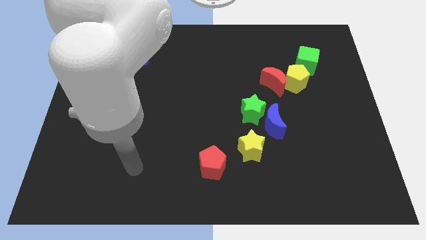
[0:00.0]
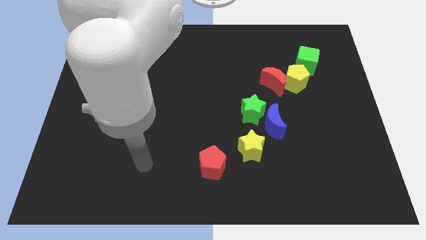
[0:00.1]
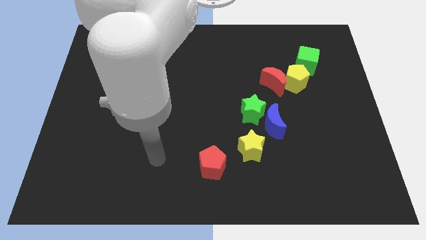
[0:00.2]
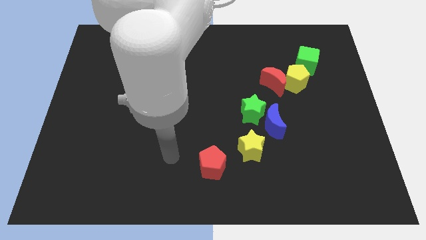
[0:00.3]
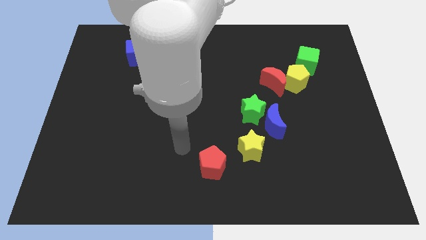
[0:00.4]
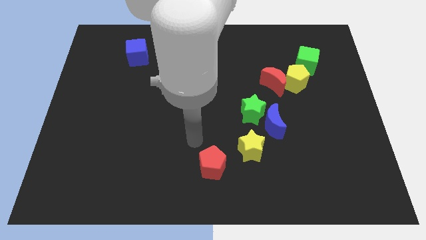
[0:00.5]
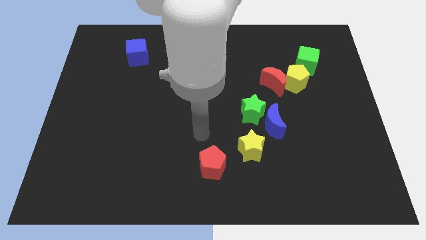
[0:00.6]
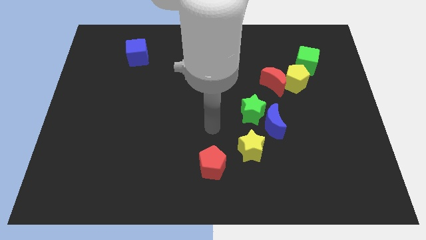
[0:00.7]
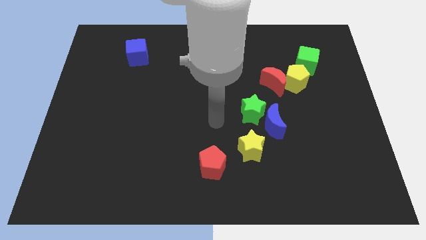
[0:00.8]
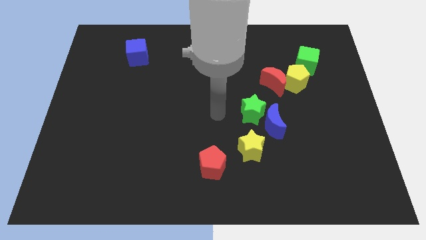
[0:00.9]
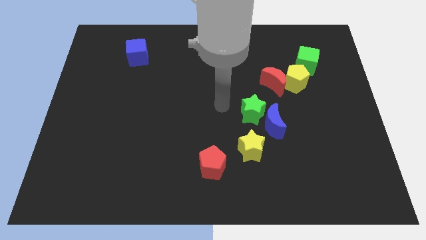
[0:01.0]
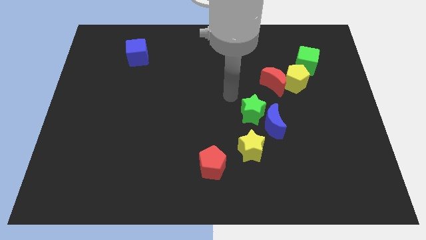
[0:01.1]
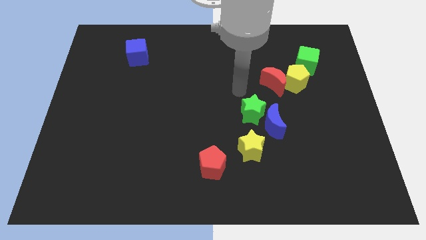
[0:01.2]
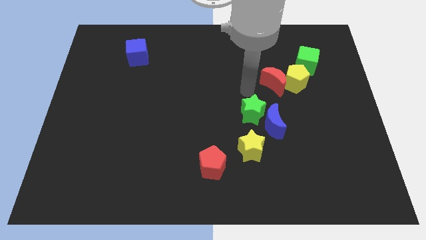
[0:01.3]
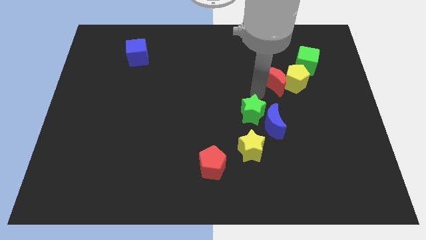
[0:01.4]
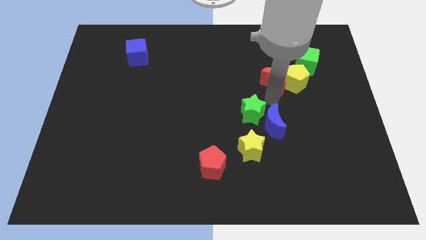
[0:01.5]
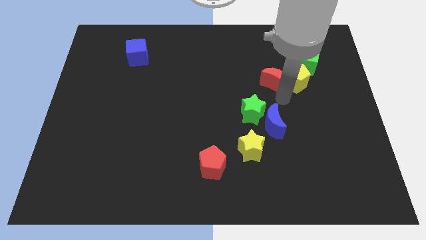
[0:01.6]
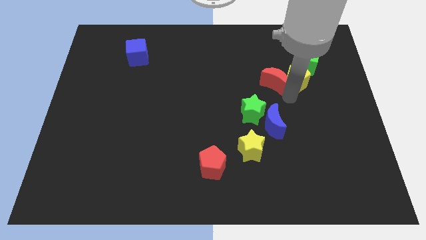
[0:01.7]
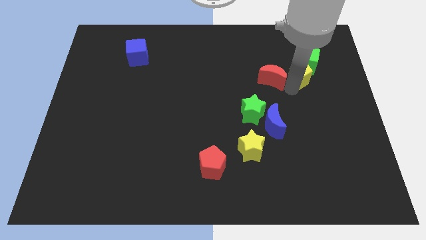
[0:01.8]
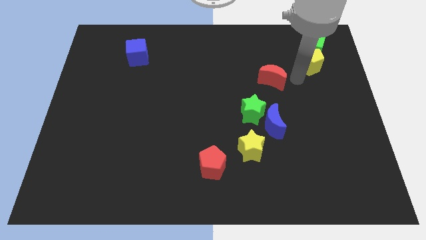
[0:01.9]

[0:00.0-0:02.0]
separate the red moon from the yellow pentagon

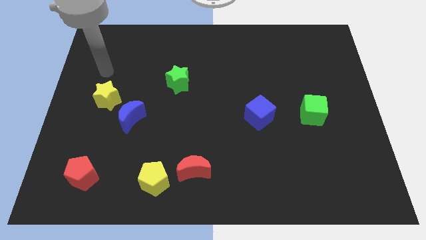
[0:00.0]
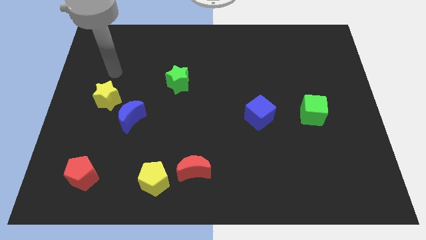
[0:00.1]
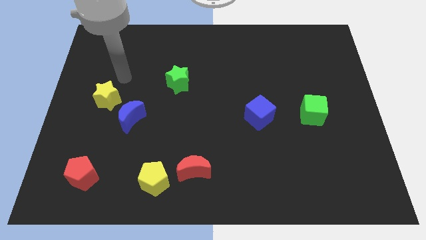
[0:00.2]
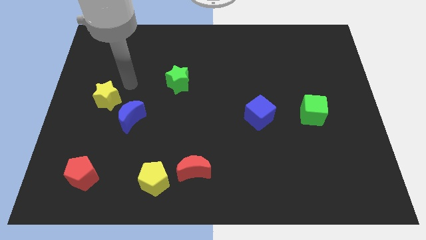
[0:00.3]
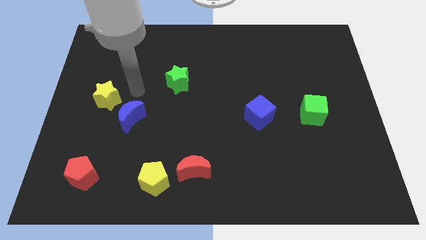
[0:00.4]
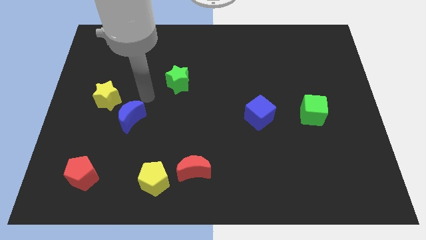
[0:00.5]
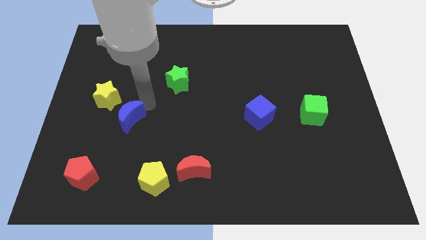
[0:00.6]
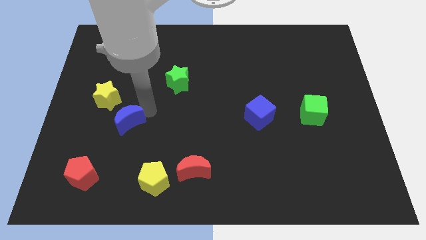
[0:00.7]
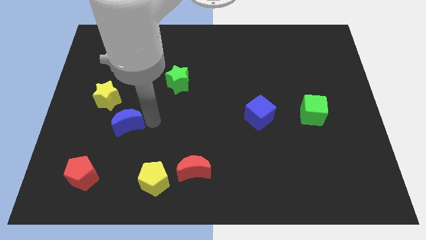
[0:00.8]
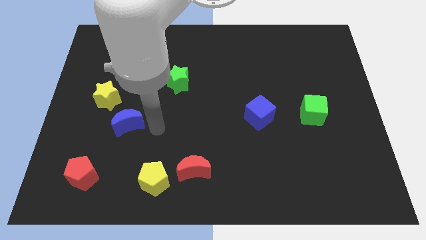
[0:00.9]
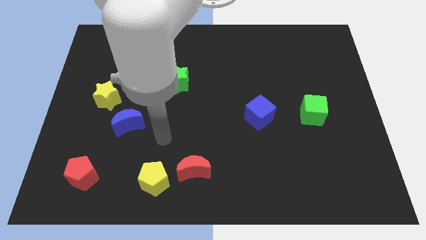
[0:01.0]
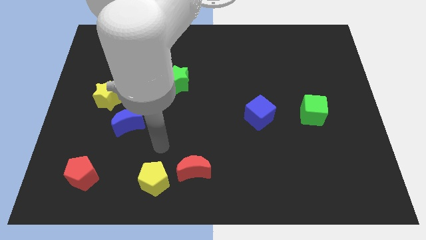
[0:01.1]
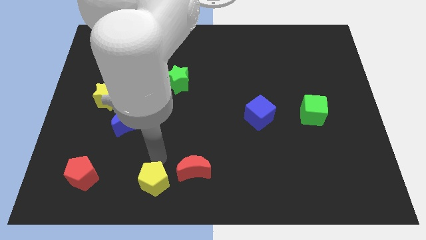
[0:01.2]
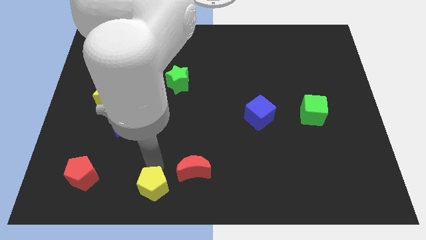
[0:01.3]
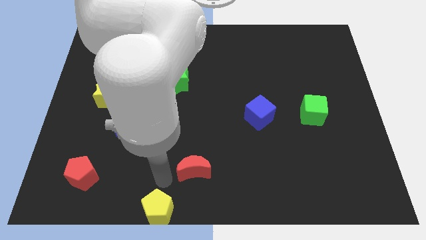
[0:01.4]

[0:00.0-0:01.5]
move the red moon away from the yellow pentagon

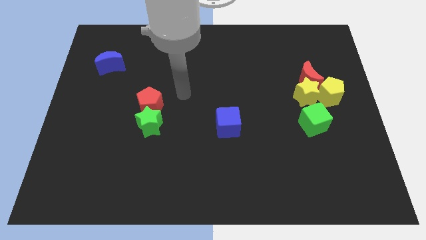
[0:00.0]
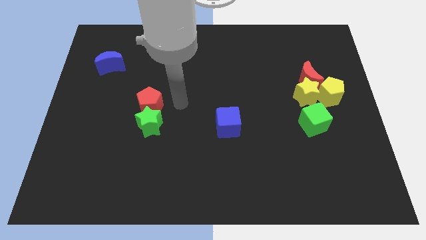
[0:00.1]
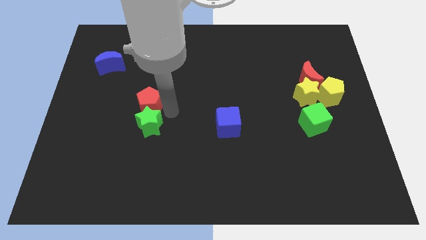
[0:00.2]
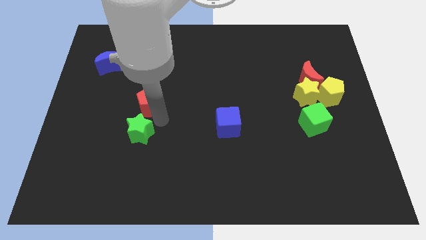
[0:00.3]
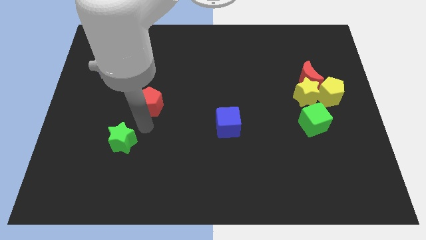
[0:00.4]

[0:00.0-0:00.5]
move the red pentagon away from the green star

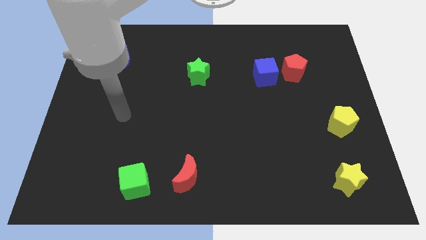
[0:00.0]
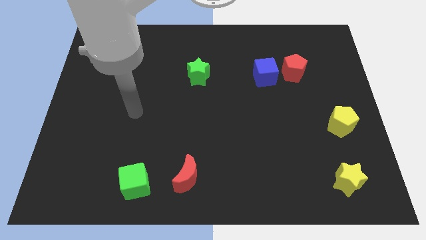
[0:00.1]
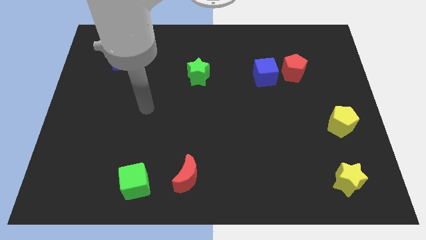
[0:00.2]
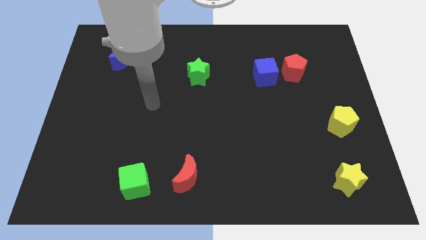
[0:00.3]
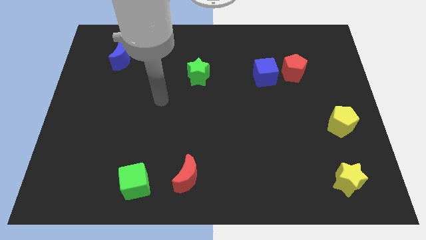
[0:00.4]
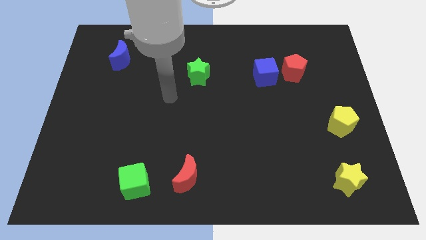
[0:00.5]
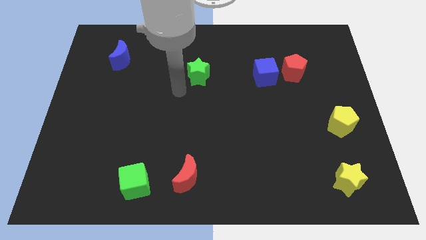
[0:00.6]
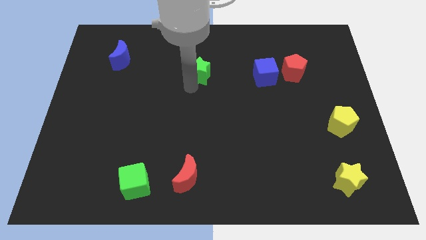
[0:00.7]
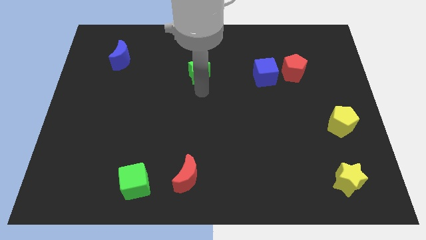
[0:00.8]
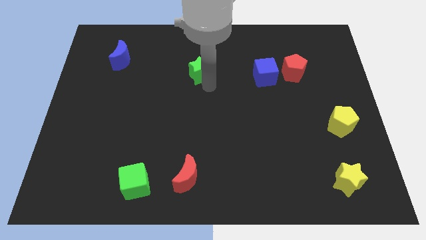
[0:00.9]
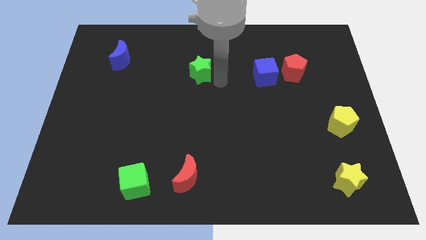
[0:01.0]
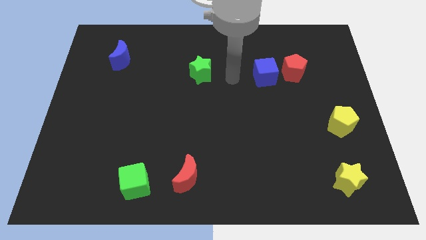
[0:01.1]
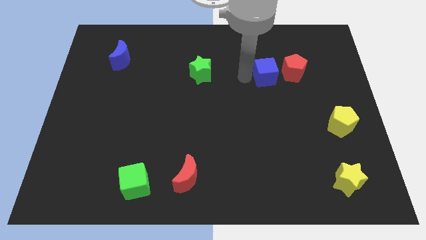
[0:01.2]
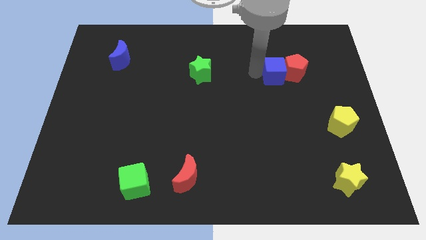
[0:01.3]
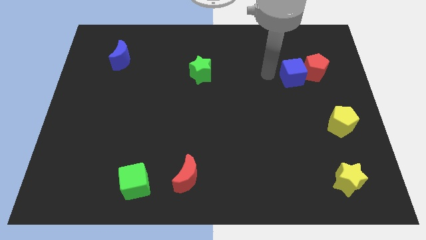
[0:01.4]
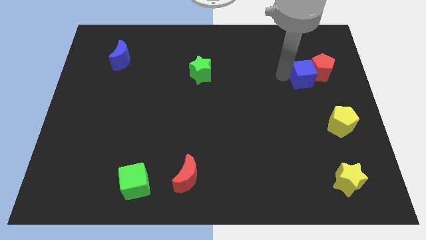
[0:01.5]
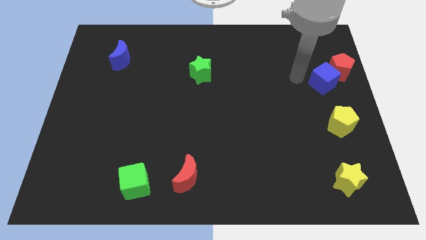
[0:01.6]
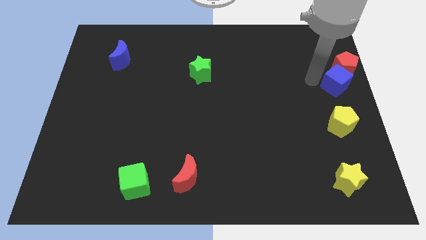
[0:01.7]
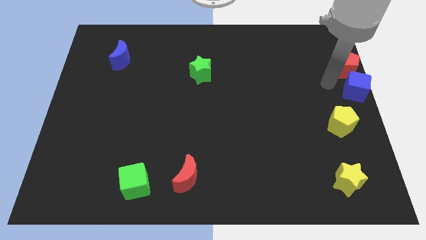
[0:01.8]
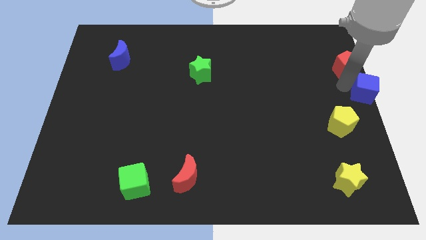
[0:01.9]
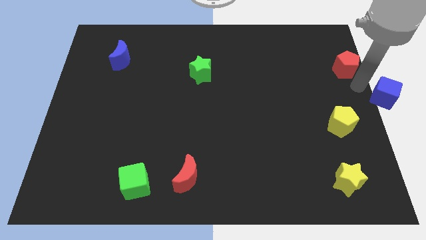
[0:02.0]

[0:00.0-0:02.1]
separate the red pentagon from the blue cube

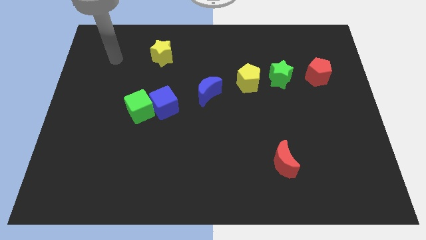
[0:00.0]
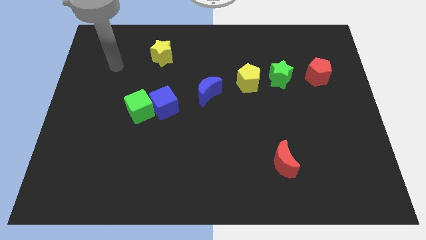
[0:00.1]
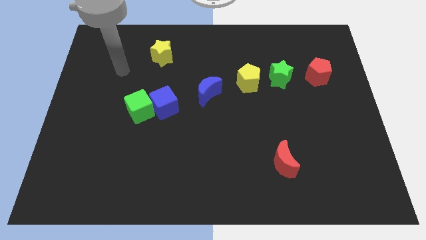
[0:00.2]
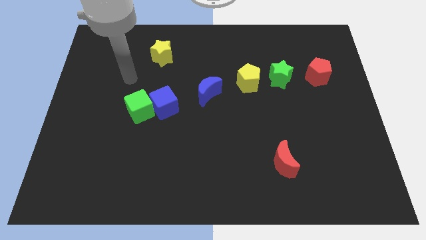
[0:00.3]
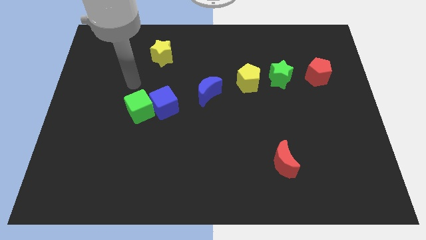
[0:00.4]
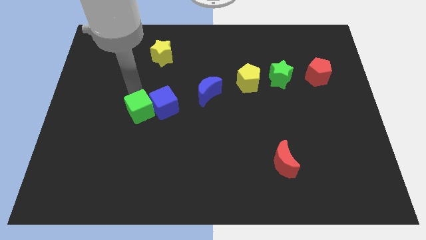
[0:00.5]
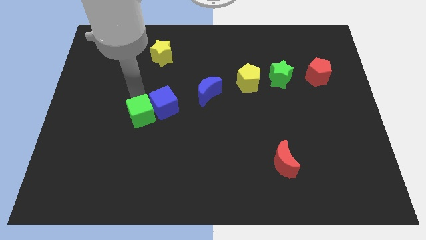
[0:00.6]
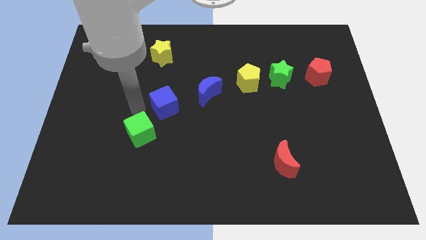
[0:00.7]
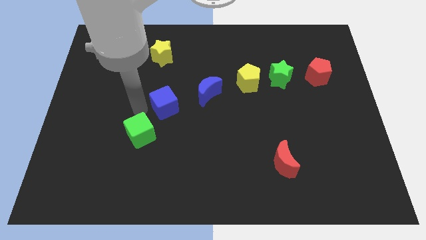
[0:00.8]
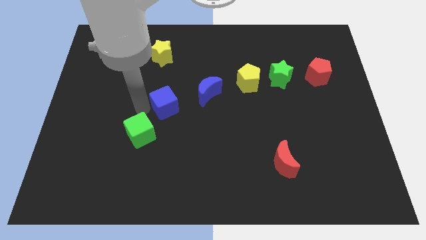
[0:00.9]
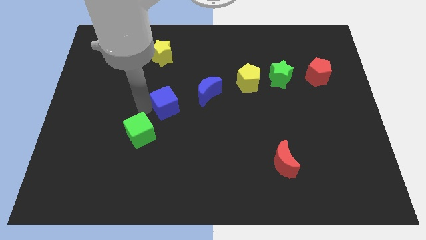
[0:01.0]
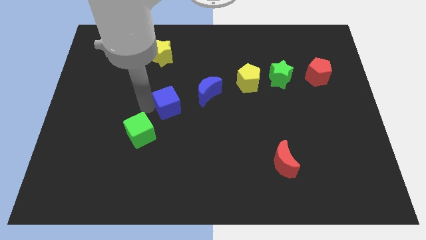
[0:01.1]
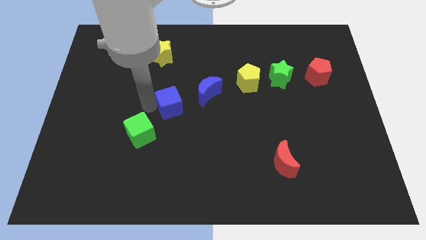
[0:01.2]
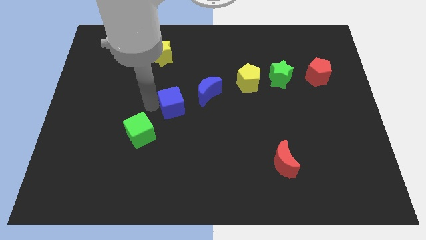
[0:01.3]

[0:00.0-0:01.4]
pull the blue cube apart from the green cube

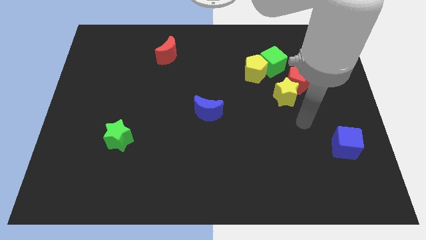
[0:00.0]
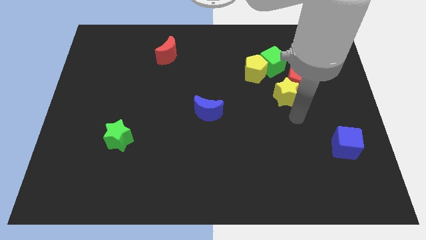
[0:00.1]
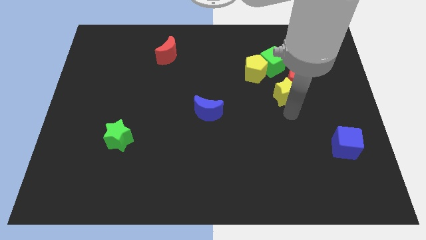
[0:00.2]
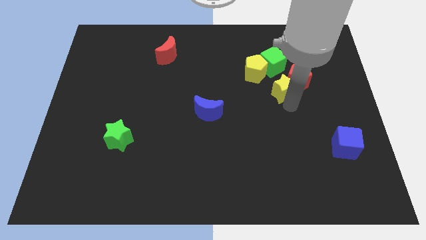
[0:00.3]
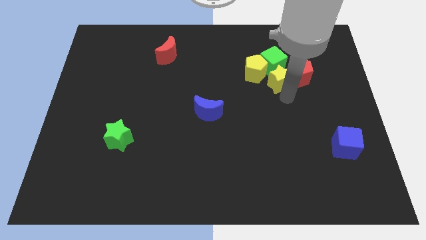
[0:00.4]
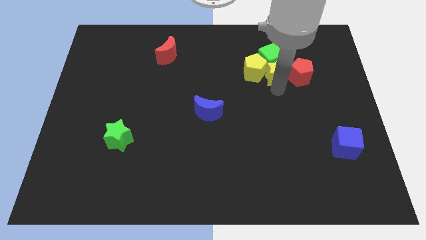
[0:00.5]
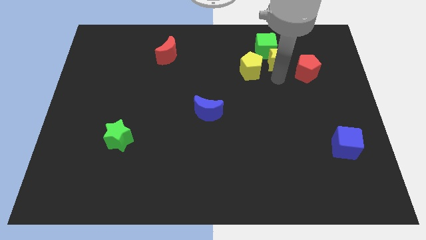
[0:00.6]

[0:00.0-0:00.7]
separate the red pentagon from the yellow star and green cube

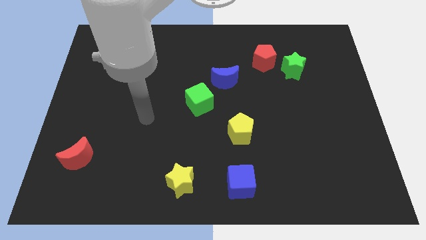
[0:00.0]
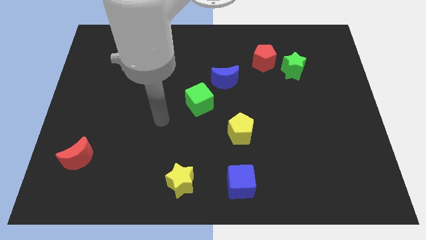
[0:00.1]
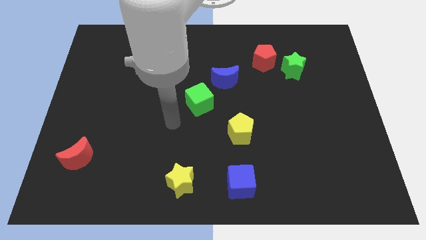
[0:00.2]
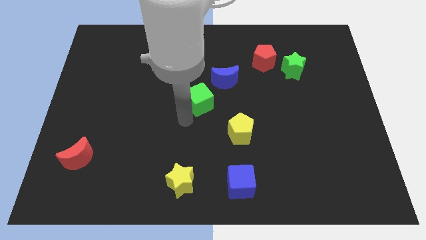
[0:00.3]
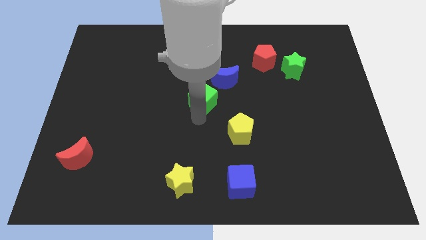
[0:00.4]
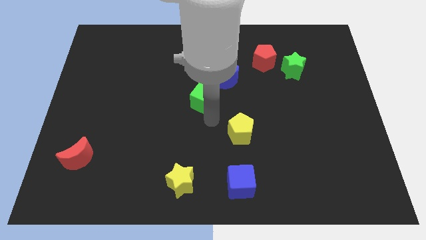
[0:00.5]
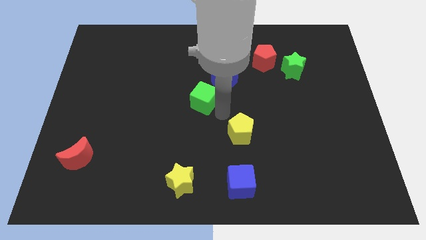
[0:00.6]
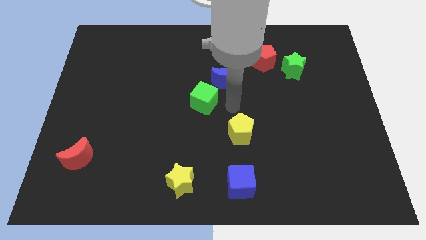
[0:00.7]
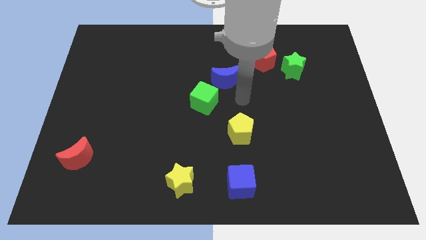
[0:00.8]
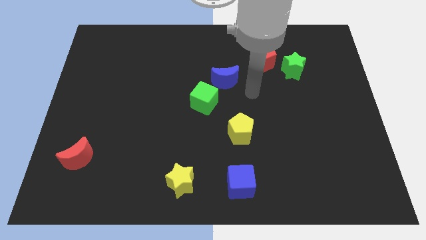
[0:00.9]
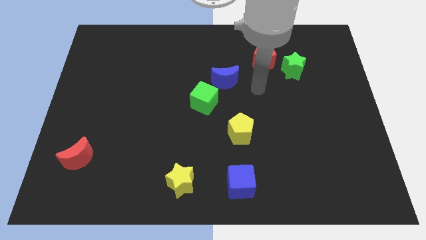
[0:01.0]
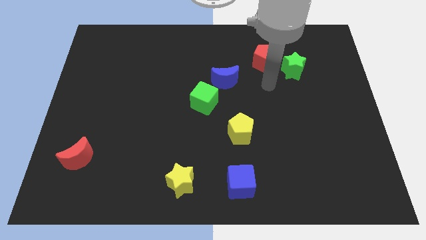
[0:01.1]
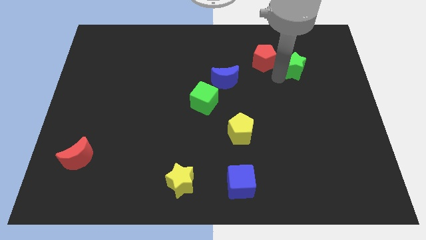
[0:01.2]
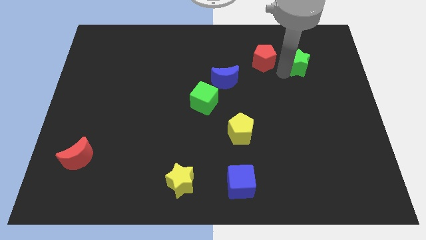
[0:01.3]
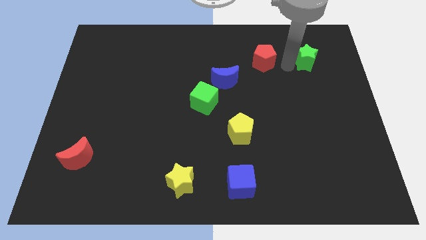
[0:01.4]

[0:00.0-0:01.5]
separate the red pentagon from the green star
